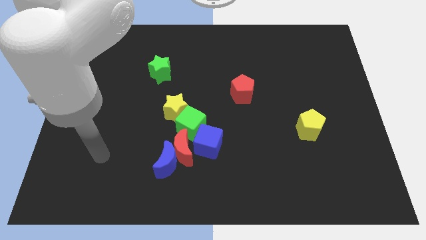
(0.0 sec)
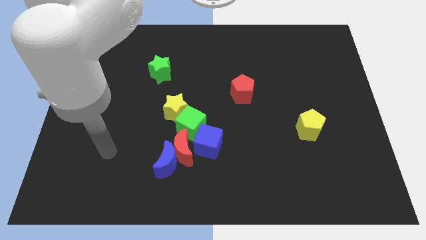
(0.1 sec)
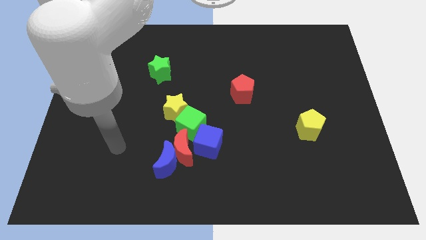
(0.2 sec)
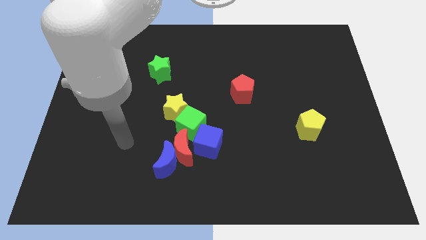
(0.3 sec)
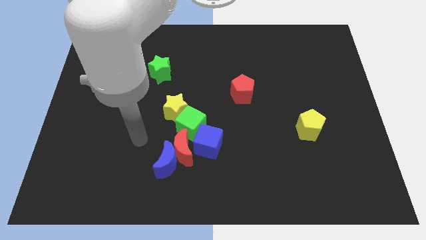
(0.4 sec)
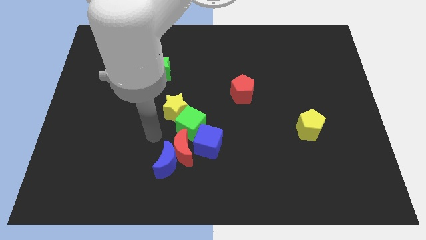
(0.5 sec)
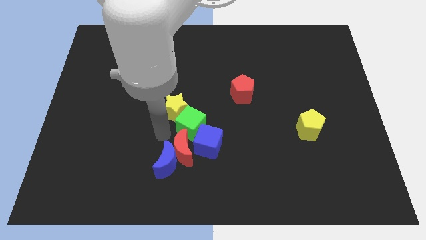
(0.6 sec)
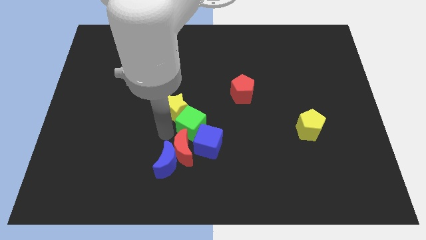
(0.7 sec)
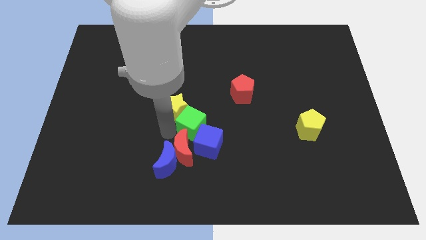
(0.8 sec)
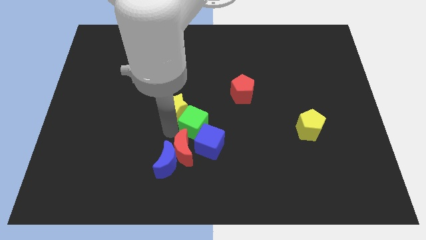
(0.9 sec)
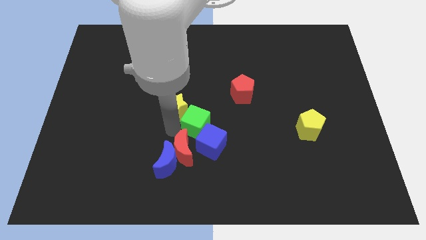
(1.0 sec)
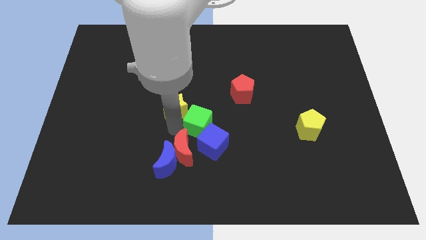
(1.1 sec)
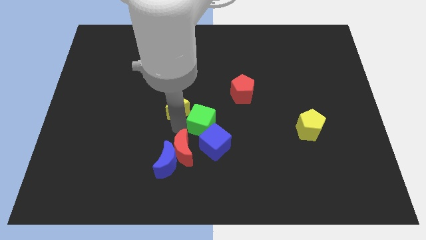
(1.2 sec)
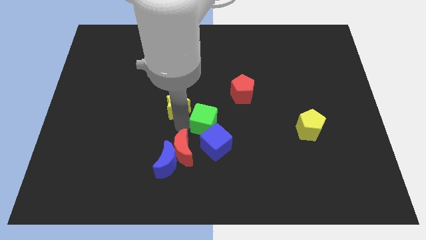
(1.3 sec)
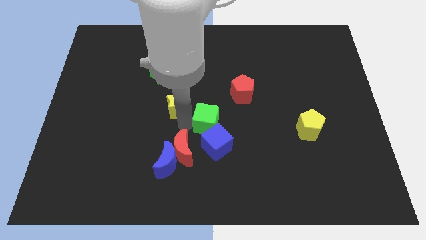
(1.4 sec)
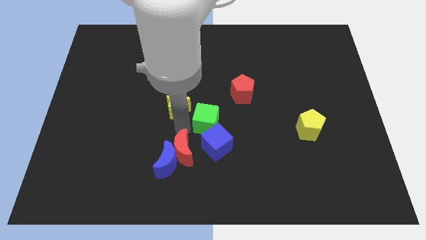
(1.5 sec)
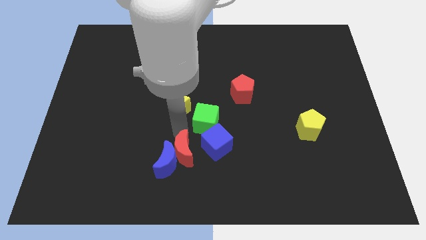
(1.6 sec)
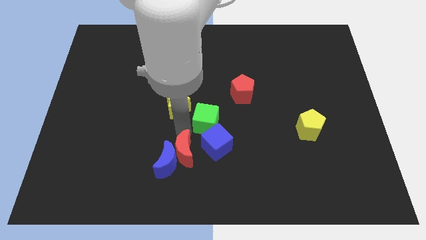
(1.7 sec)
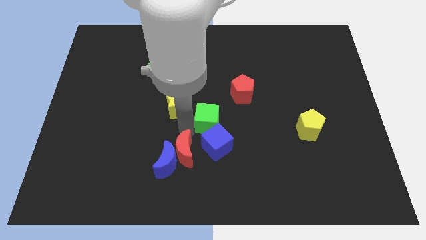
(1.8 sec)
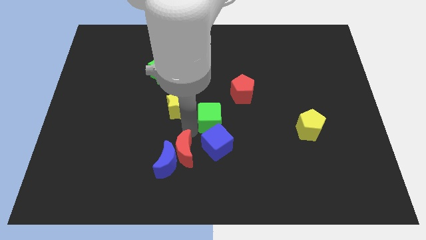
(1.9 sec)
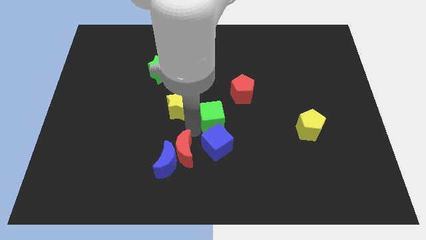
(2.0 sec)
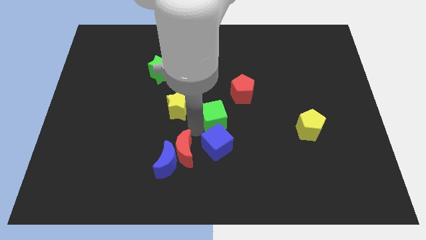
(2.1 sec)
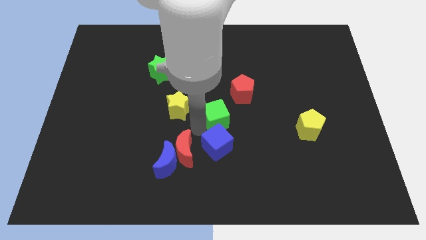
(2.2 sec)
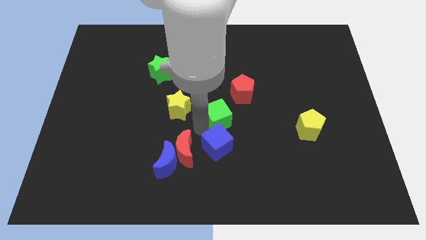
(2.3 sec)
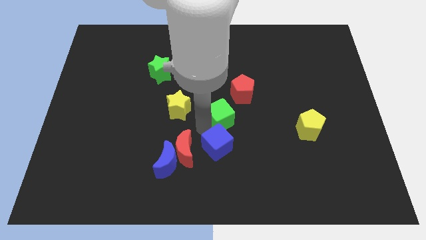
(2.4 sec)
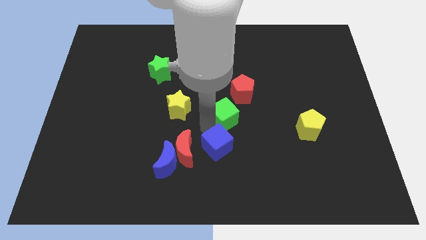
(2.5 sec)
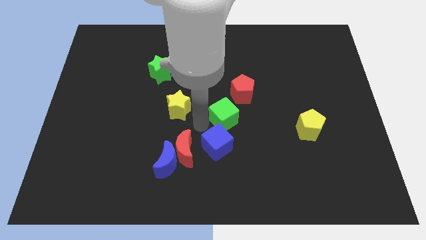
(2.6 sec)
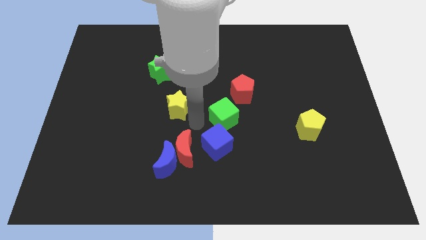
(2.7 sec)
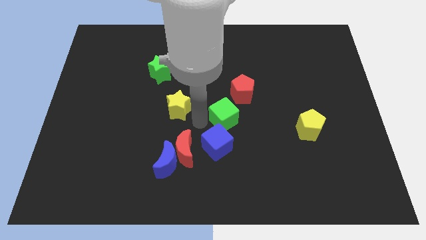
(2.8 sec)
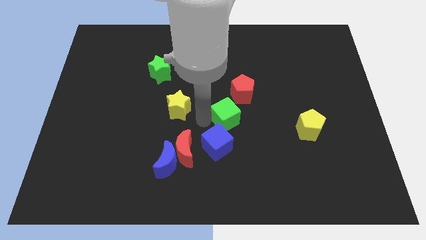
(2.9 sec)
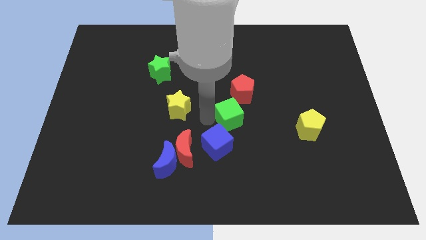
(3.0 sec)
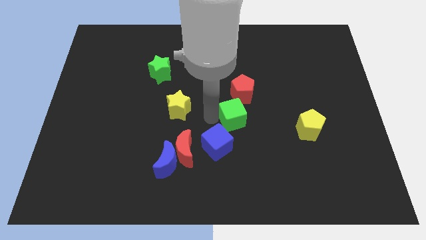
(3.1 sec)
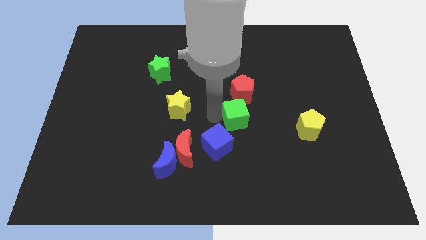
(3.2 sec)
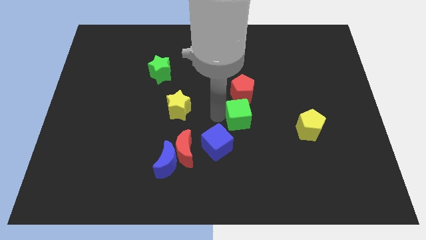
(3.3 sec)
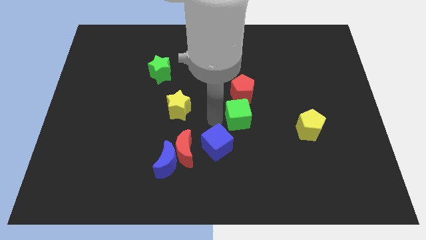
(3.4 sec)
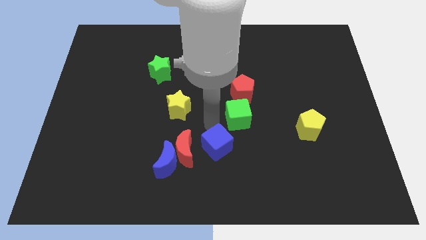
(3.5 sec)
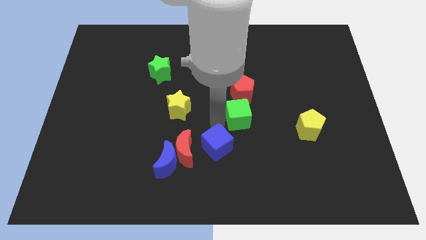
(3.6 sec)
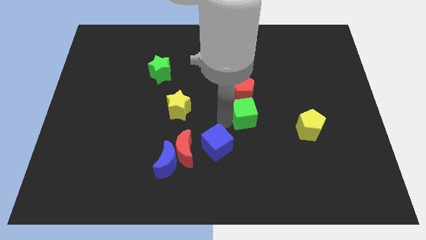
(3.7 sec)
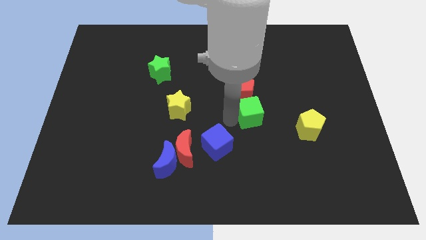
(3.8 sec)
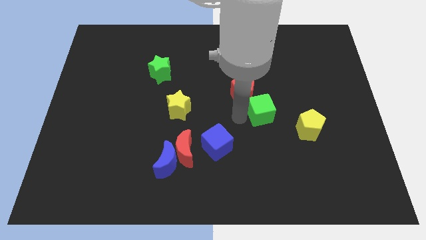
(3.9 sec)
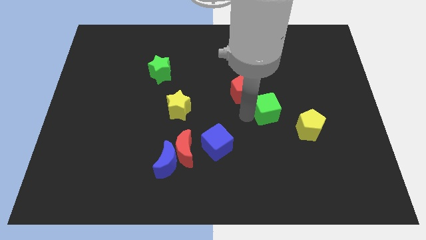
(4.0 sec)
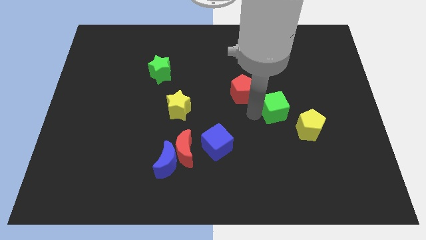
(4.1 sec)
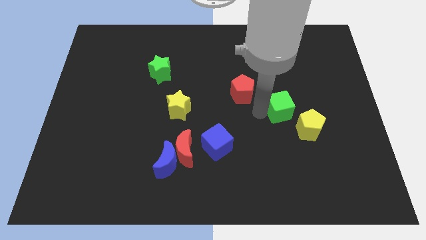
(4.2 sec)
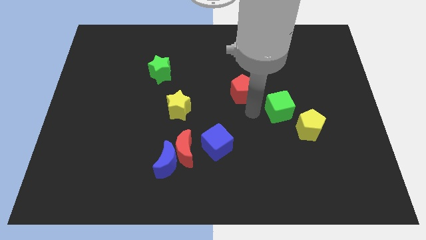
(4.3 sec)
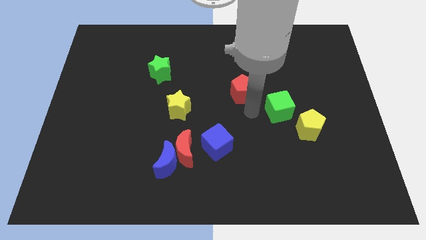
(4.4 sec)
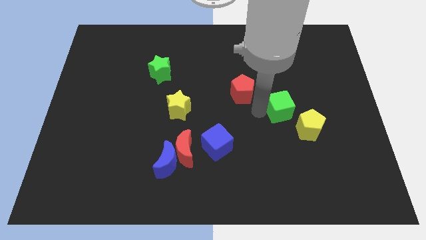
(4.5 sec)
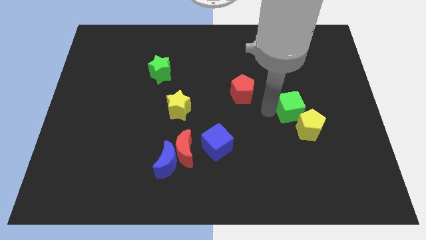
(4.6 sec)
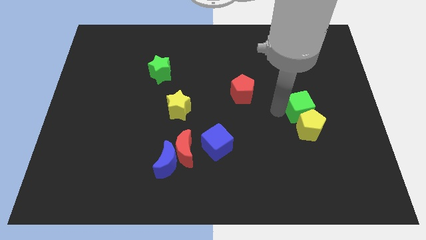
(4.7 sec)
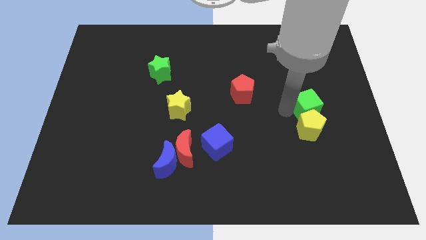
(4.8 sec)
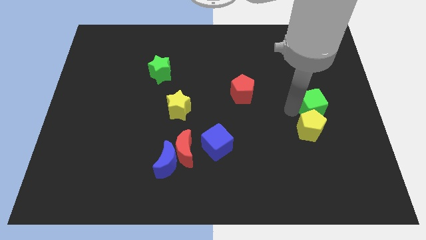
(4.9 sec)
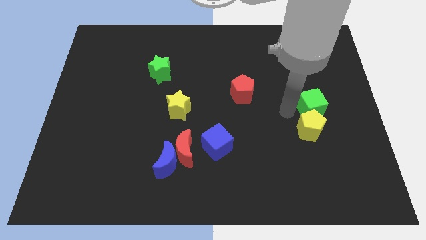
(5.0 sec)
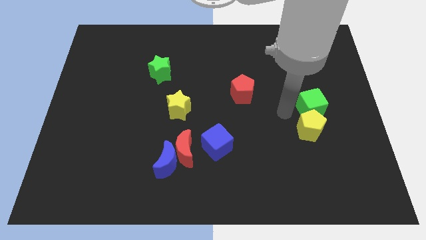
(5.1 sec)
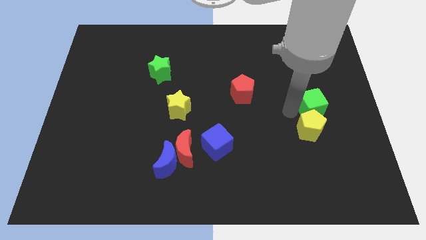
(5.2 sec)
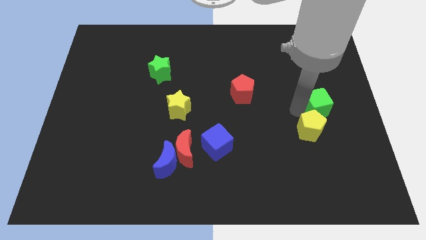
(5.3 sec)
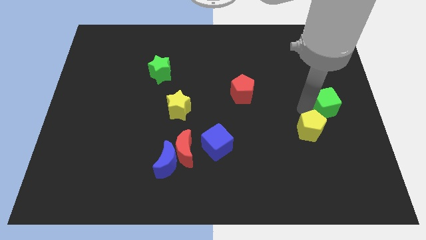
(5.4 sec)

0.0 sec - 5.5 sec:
move the green cube to the center right

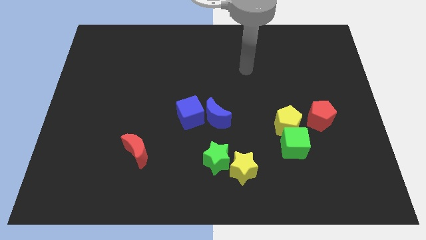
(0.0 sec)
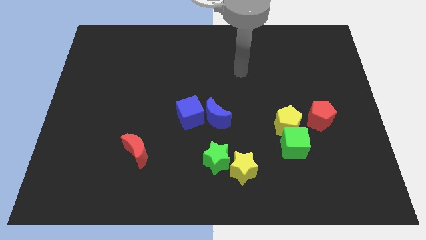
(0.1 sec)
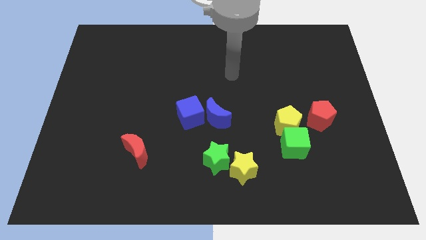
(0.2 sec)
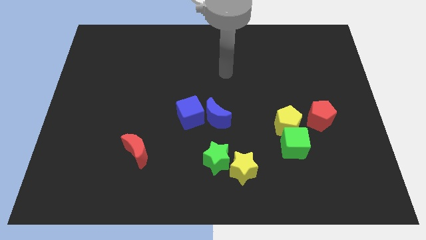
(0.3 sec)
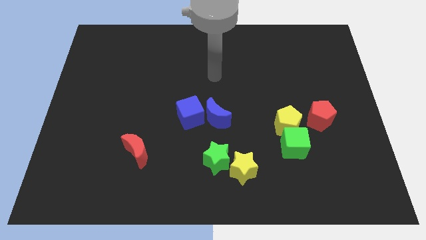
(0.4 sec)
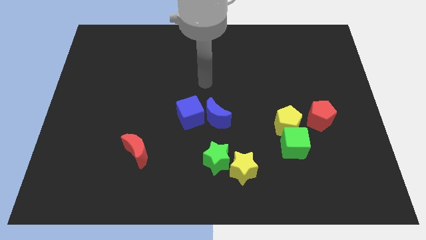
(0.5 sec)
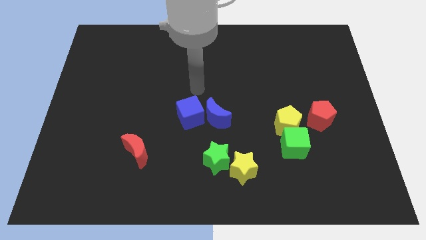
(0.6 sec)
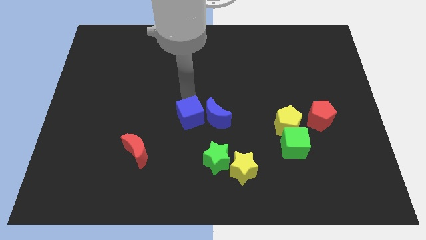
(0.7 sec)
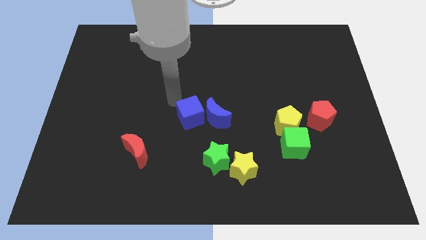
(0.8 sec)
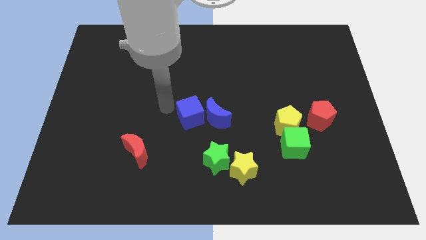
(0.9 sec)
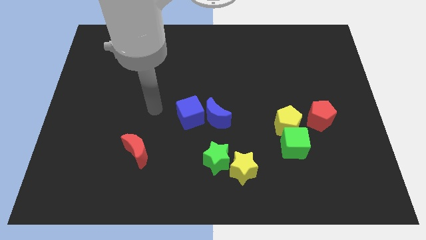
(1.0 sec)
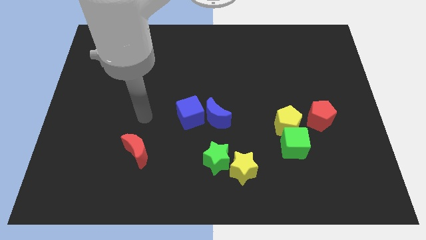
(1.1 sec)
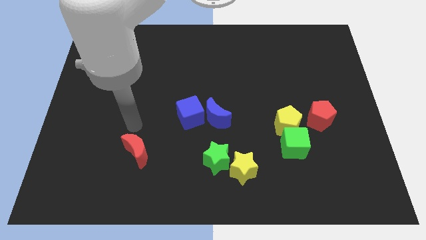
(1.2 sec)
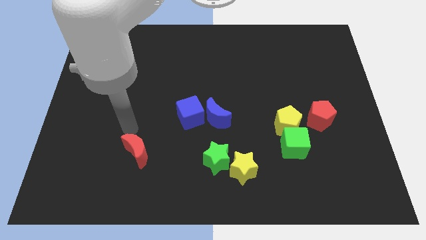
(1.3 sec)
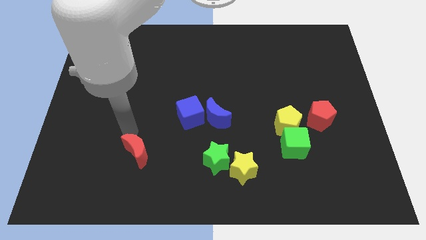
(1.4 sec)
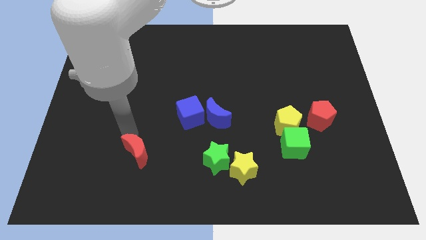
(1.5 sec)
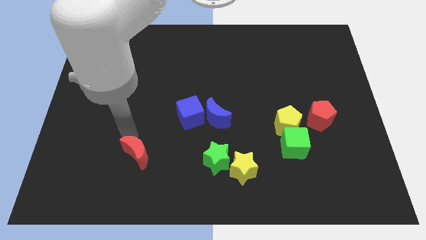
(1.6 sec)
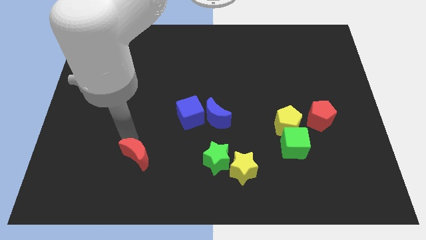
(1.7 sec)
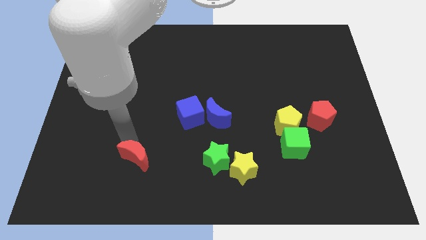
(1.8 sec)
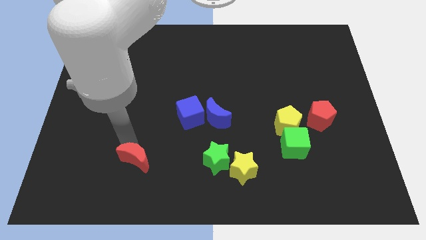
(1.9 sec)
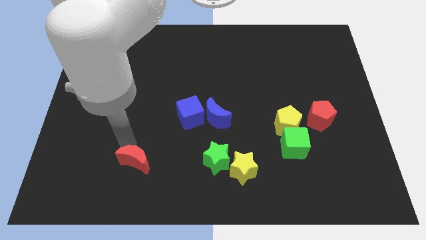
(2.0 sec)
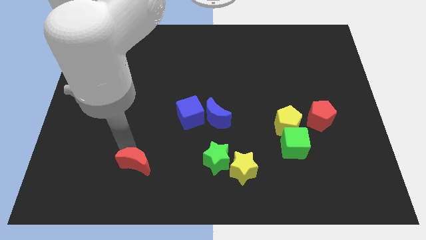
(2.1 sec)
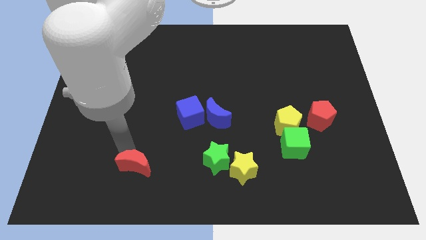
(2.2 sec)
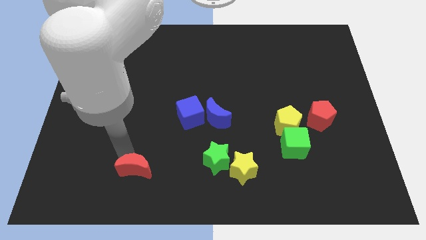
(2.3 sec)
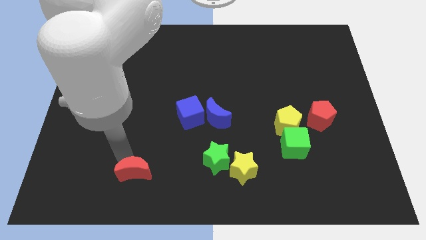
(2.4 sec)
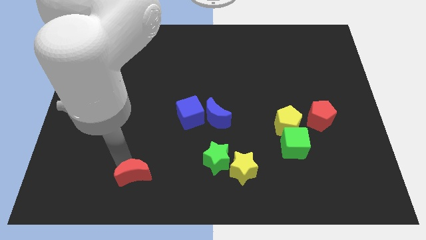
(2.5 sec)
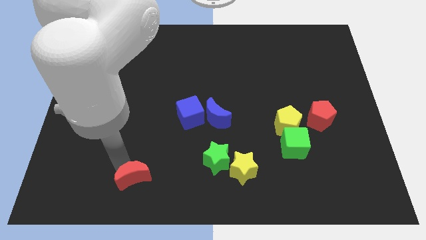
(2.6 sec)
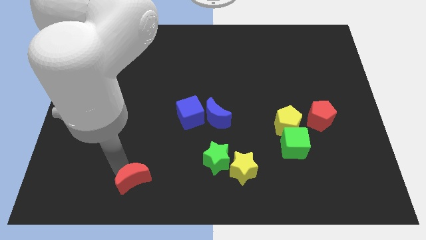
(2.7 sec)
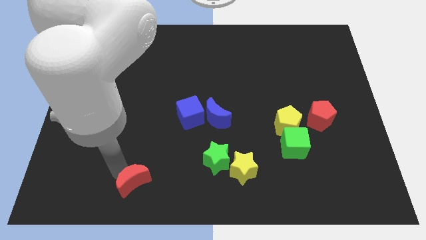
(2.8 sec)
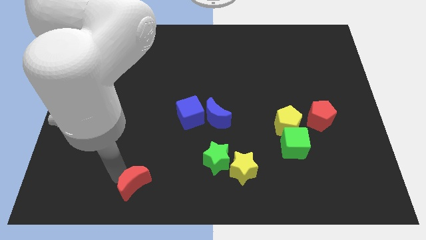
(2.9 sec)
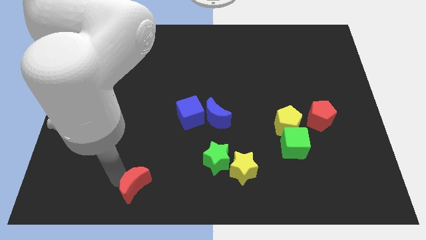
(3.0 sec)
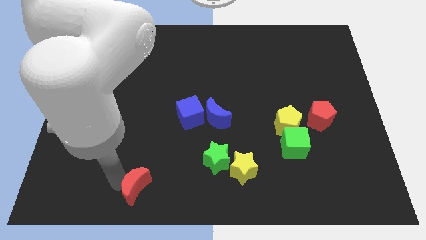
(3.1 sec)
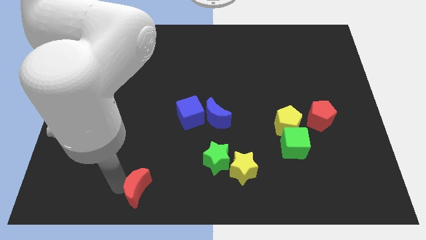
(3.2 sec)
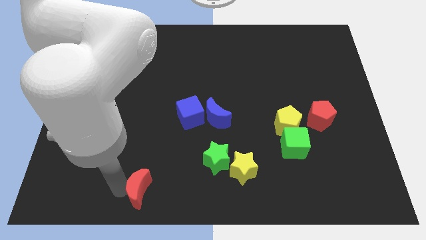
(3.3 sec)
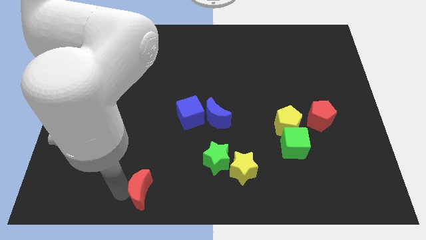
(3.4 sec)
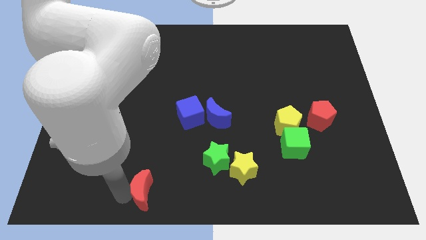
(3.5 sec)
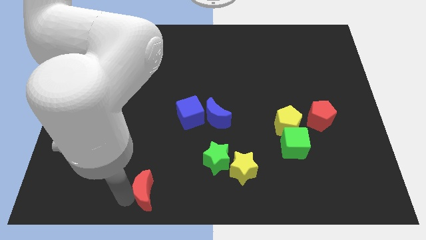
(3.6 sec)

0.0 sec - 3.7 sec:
push the red moon to the bottom side
